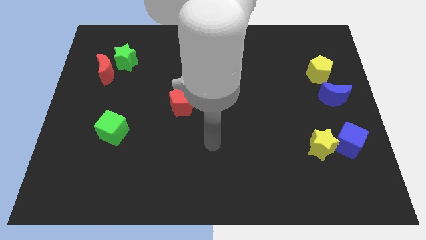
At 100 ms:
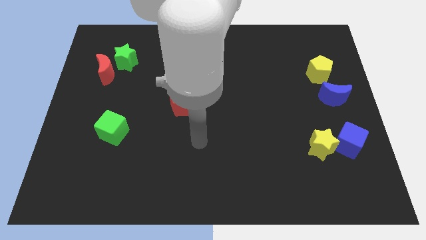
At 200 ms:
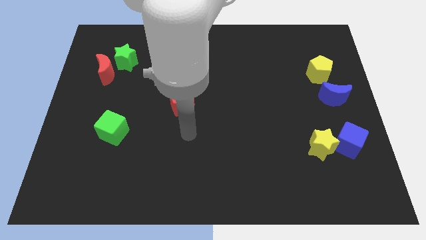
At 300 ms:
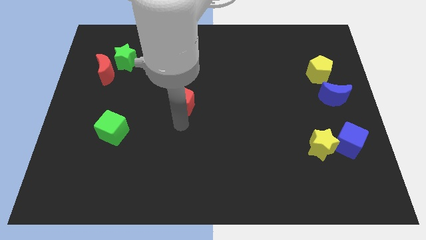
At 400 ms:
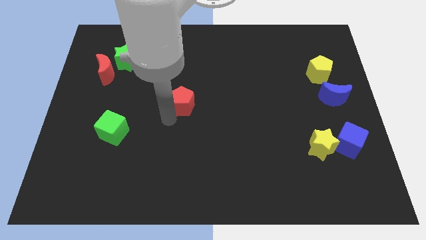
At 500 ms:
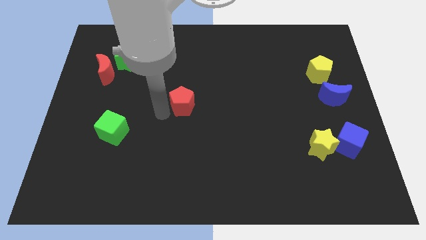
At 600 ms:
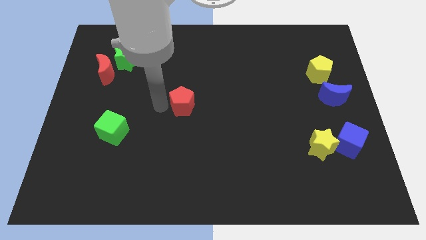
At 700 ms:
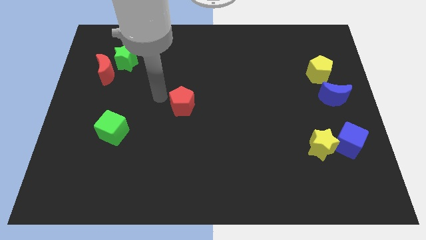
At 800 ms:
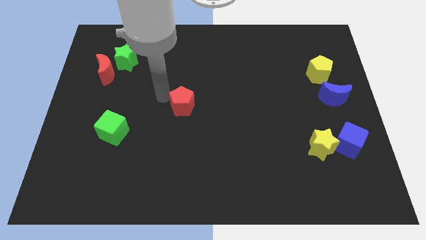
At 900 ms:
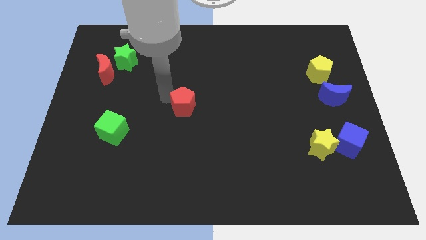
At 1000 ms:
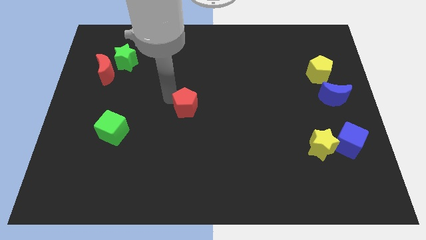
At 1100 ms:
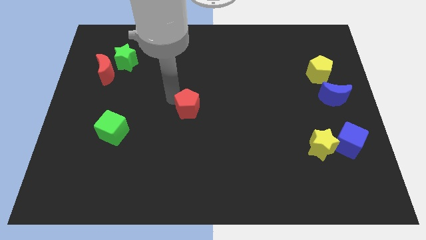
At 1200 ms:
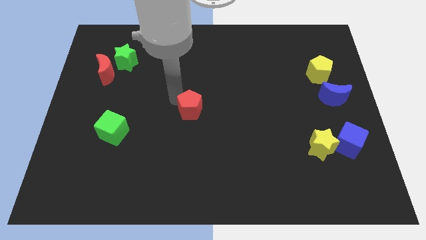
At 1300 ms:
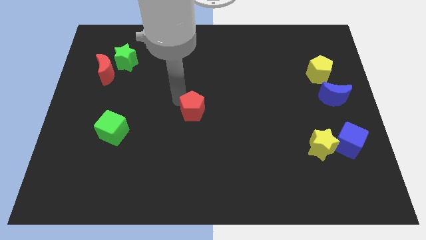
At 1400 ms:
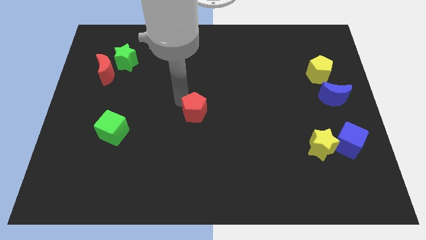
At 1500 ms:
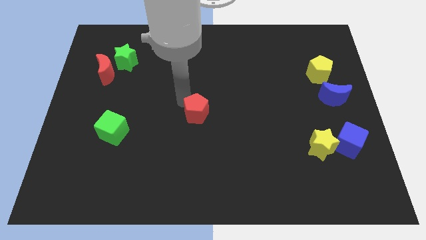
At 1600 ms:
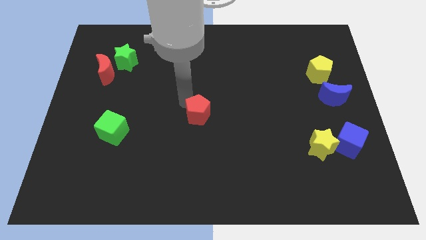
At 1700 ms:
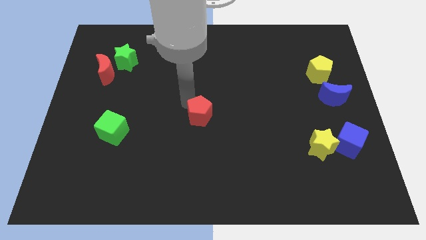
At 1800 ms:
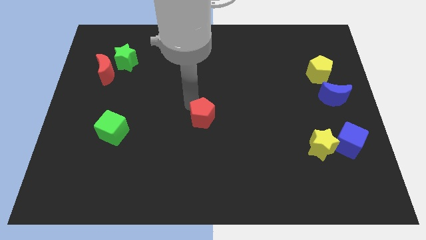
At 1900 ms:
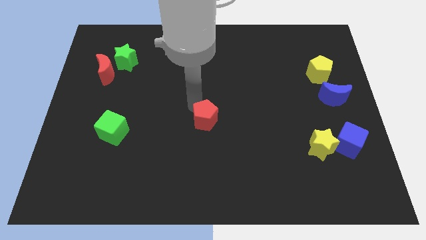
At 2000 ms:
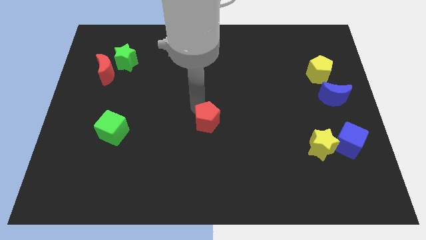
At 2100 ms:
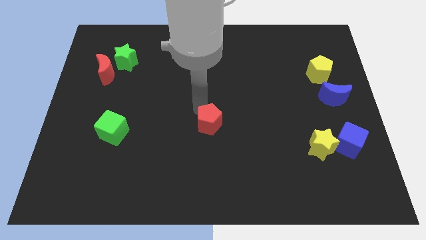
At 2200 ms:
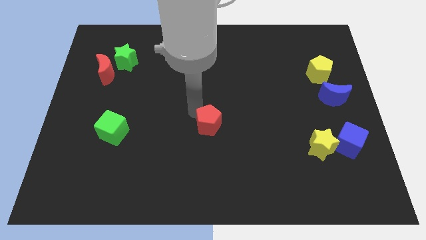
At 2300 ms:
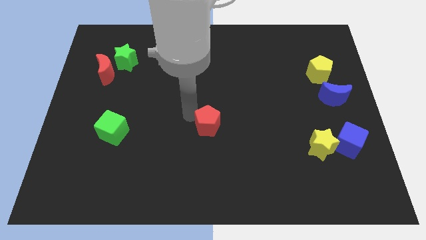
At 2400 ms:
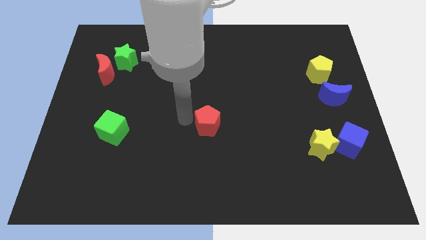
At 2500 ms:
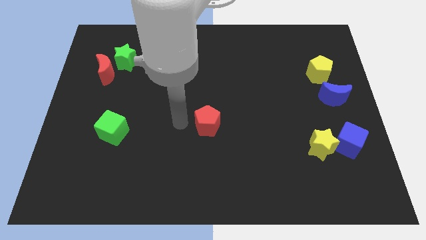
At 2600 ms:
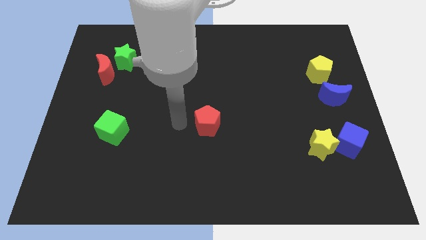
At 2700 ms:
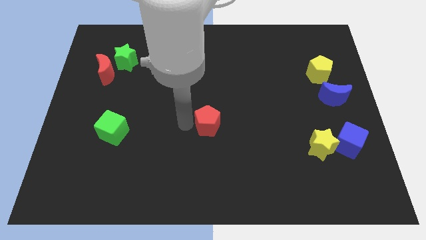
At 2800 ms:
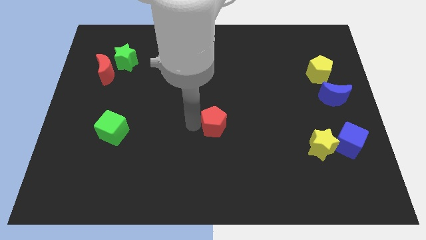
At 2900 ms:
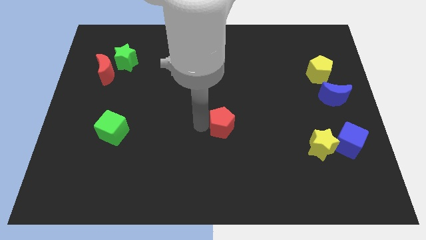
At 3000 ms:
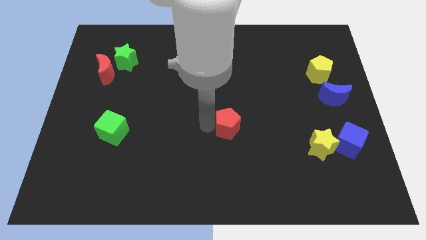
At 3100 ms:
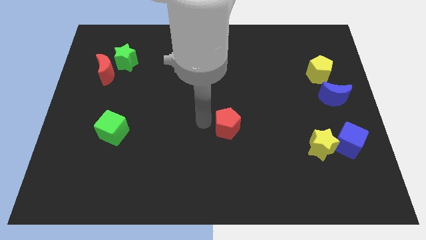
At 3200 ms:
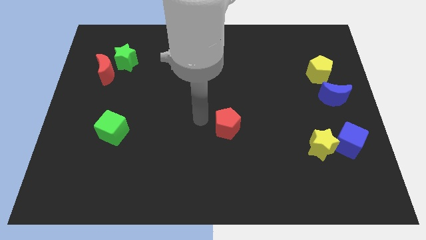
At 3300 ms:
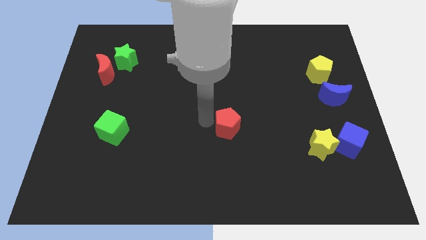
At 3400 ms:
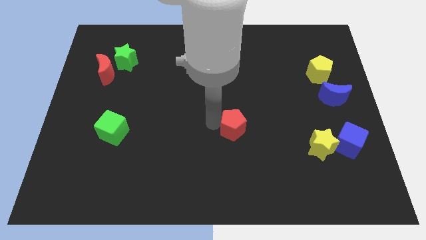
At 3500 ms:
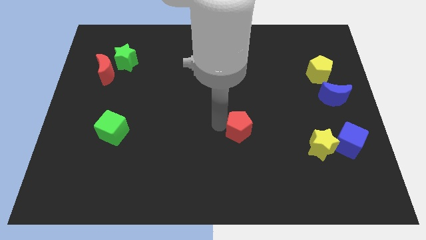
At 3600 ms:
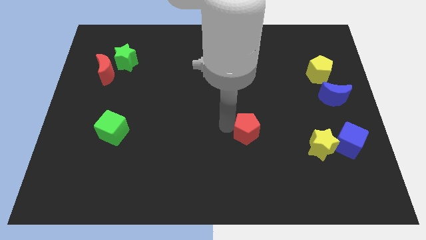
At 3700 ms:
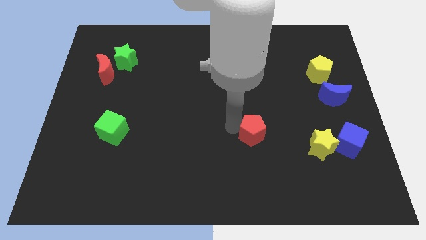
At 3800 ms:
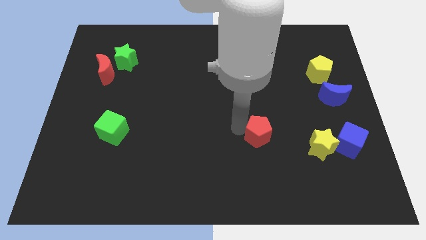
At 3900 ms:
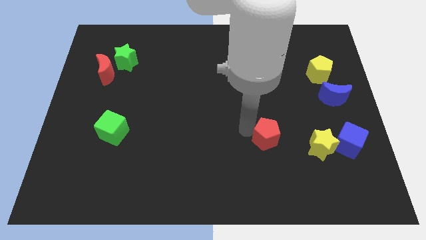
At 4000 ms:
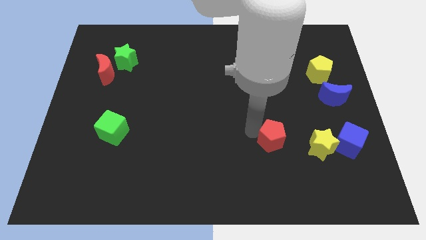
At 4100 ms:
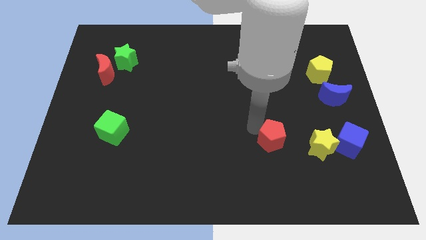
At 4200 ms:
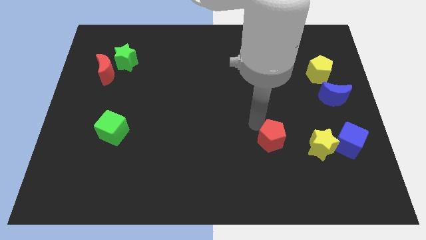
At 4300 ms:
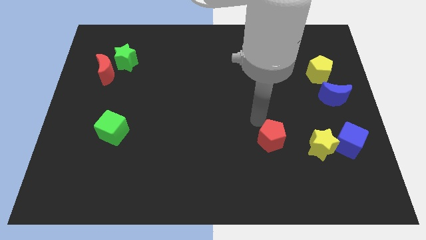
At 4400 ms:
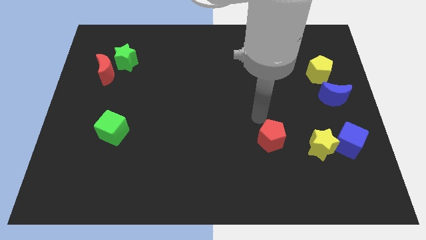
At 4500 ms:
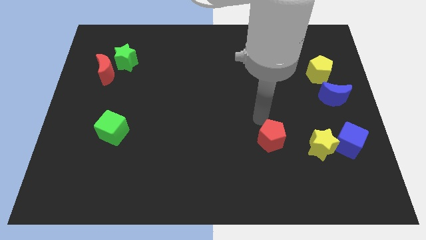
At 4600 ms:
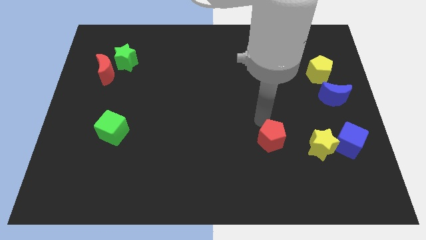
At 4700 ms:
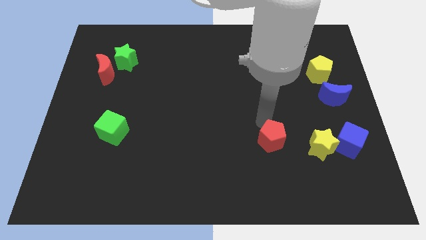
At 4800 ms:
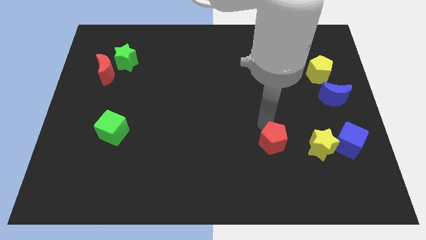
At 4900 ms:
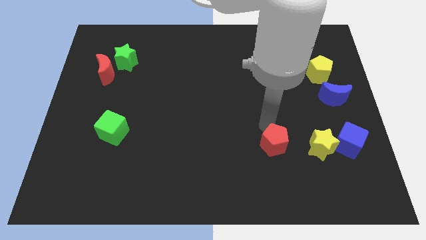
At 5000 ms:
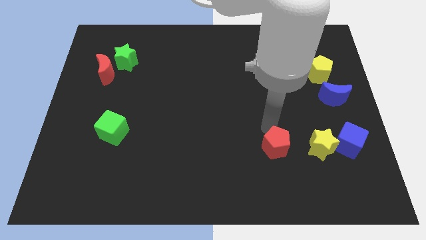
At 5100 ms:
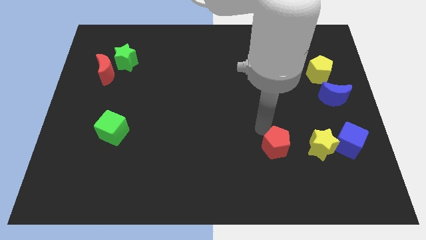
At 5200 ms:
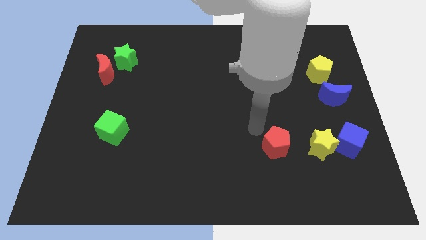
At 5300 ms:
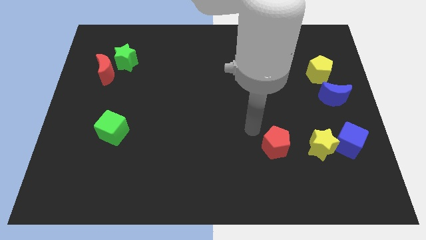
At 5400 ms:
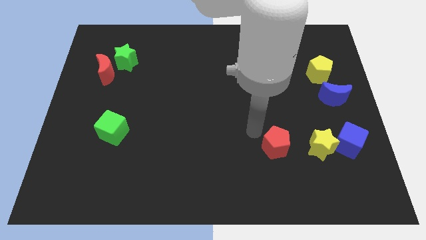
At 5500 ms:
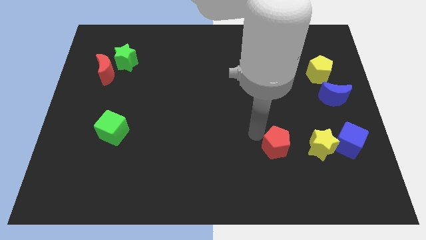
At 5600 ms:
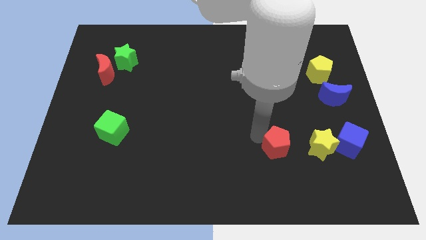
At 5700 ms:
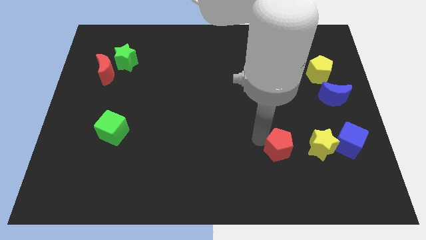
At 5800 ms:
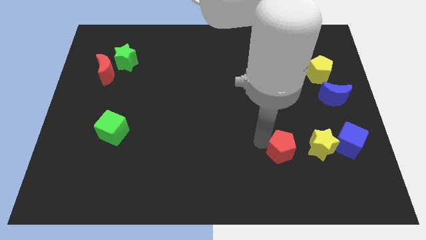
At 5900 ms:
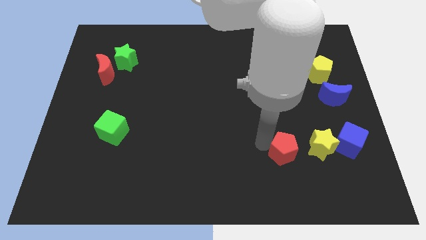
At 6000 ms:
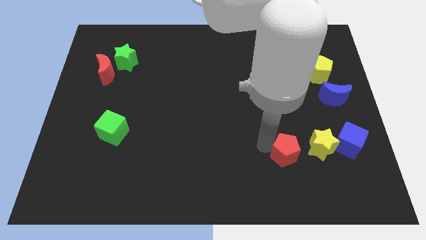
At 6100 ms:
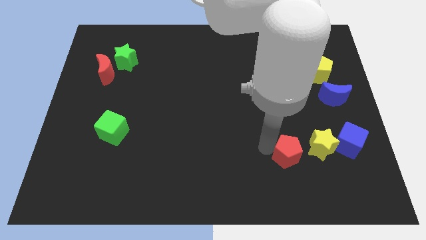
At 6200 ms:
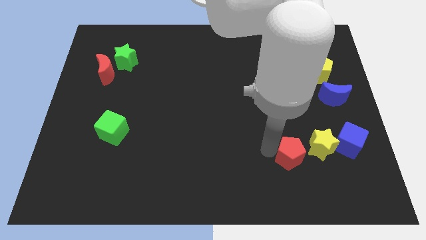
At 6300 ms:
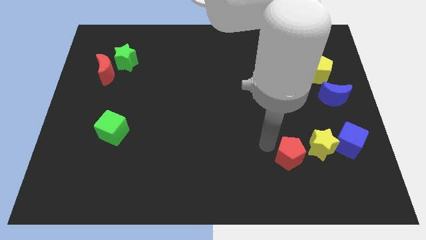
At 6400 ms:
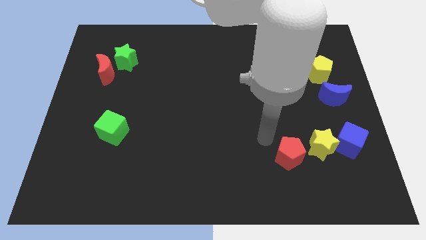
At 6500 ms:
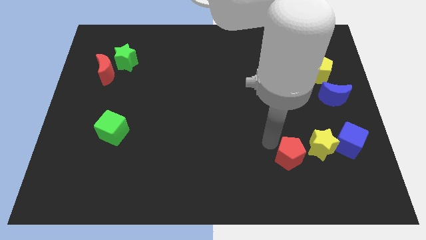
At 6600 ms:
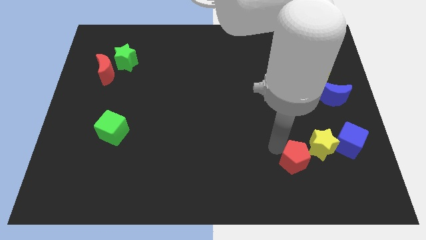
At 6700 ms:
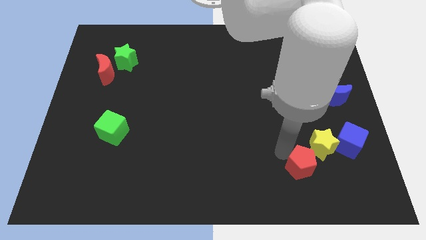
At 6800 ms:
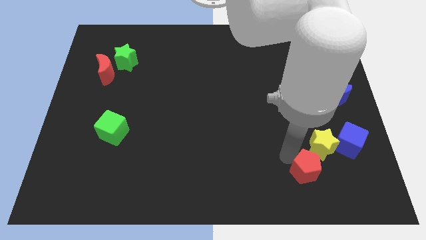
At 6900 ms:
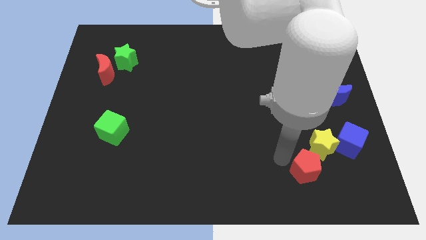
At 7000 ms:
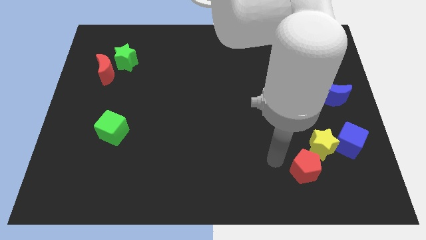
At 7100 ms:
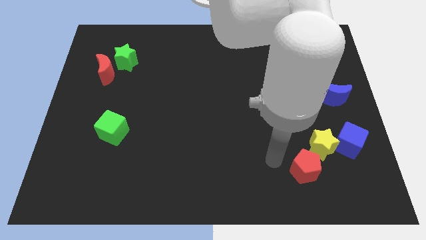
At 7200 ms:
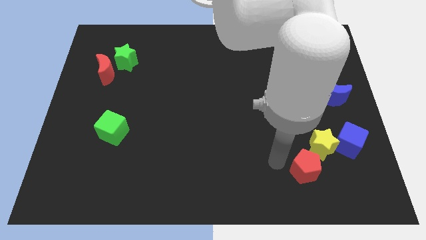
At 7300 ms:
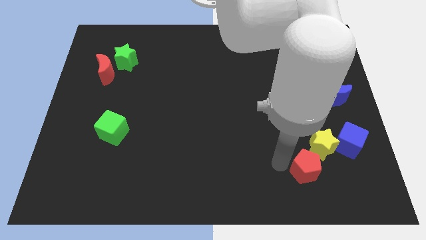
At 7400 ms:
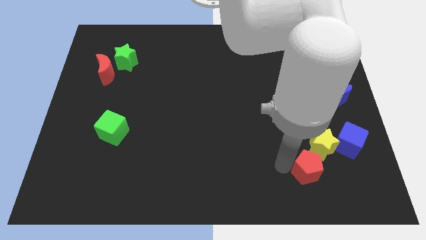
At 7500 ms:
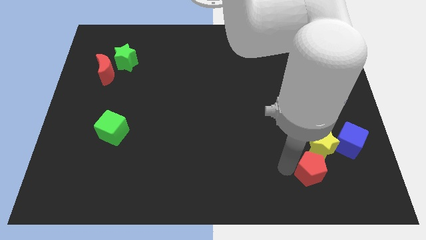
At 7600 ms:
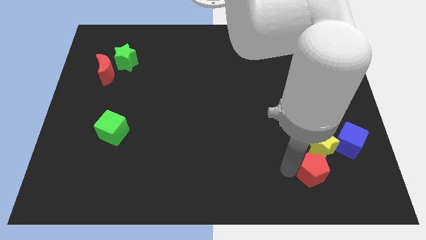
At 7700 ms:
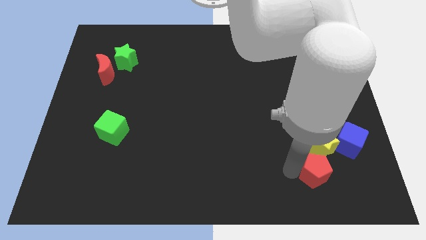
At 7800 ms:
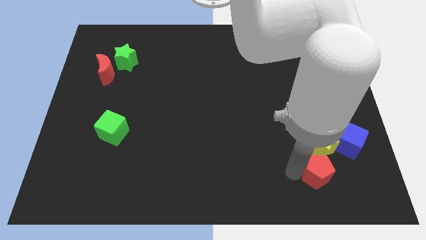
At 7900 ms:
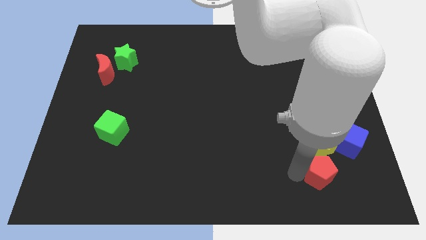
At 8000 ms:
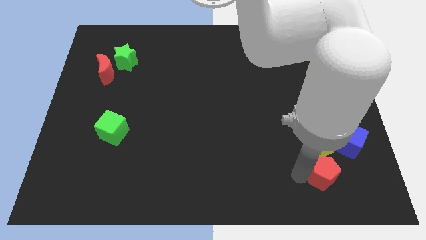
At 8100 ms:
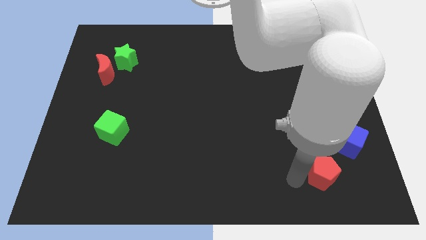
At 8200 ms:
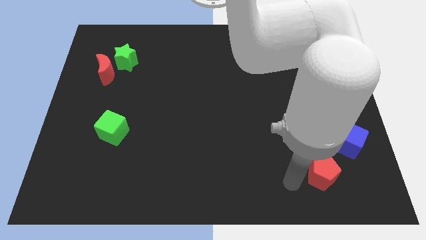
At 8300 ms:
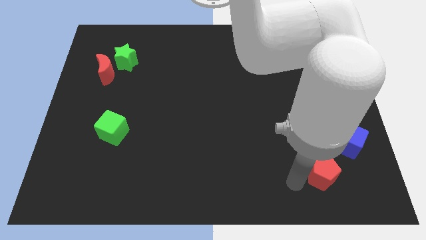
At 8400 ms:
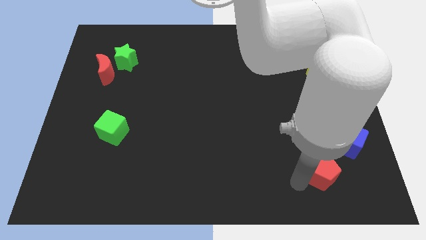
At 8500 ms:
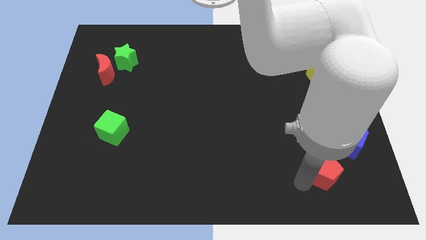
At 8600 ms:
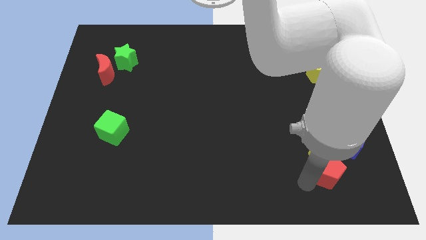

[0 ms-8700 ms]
slide the red pentagon to the bottom right side of the yellow star
